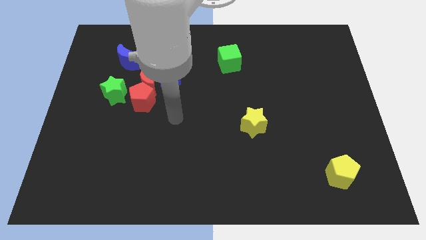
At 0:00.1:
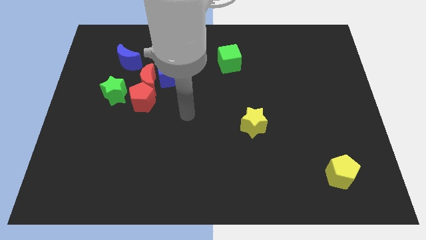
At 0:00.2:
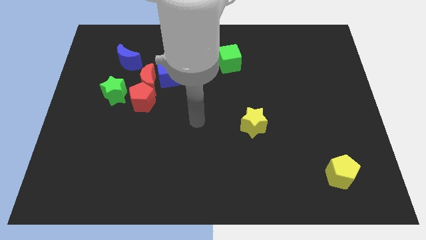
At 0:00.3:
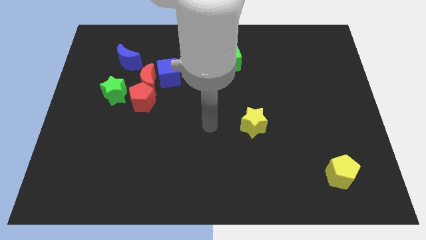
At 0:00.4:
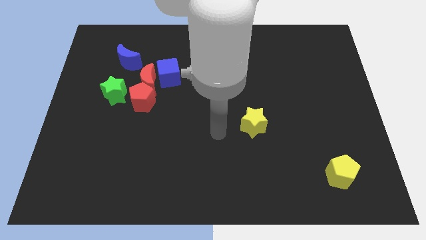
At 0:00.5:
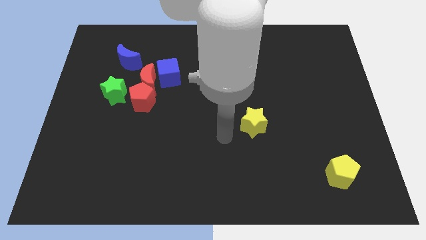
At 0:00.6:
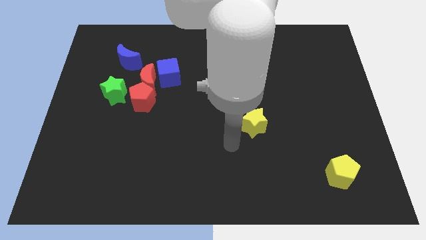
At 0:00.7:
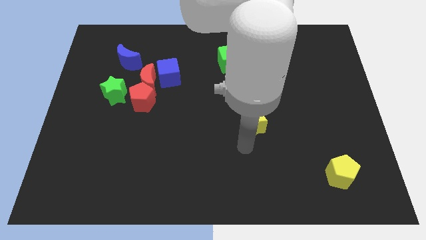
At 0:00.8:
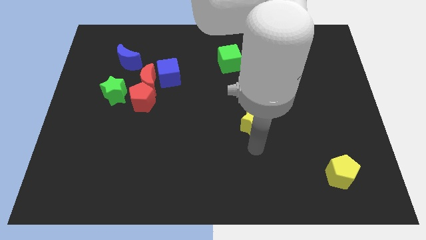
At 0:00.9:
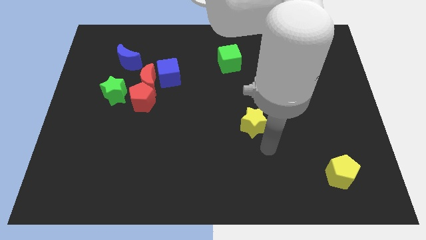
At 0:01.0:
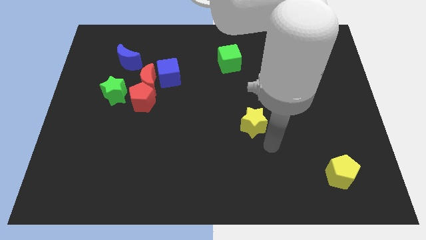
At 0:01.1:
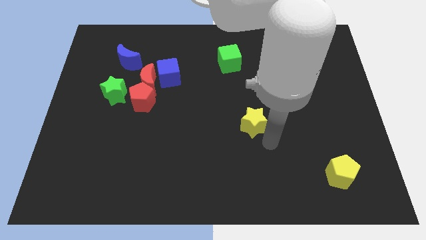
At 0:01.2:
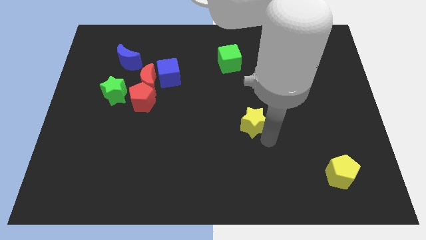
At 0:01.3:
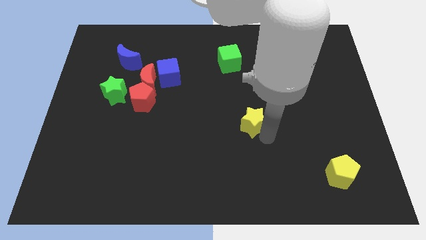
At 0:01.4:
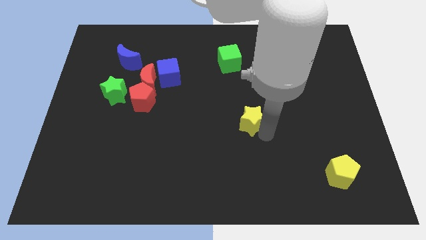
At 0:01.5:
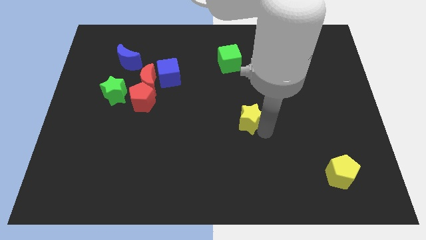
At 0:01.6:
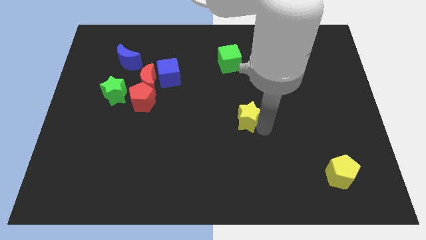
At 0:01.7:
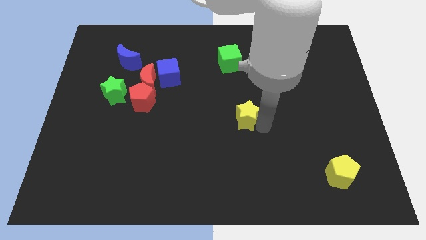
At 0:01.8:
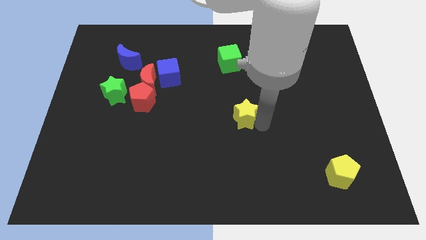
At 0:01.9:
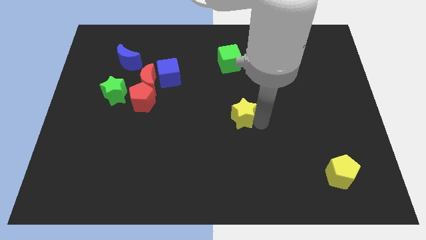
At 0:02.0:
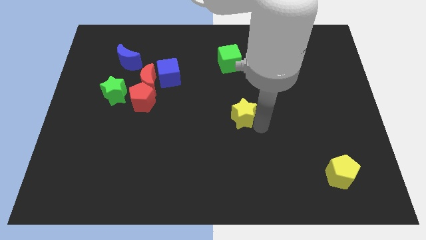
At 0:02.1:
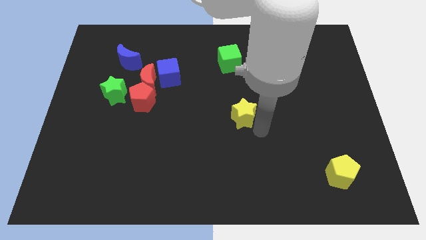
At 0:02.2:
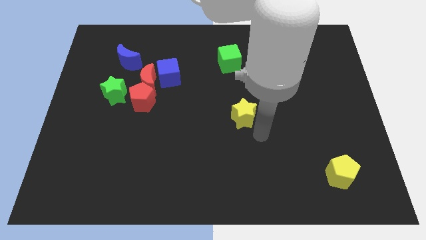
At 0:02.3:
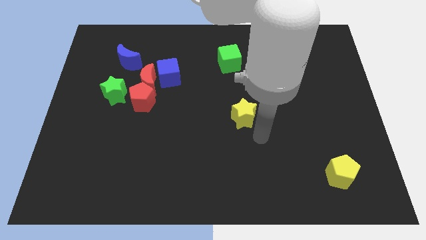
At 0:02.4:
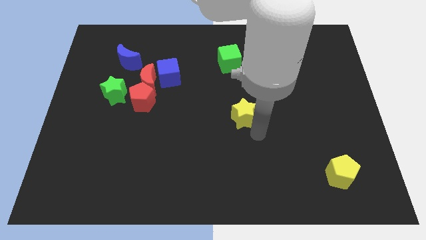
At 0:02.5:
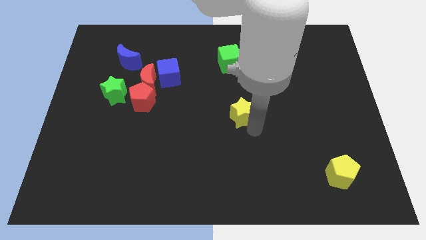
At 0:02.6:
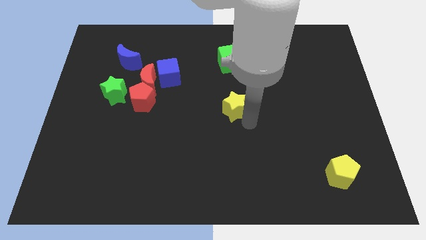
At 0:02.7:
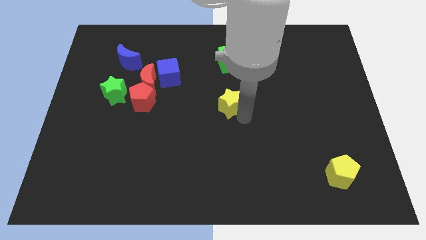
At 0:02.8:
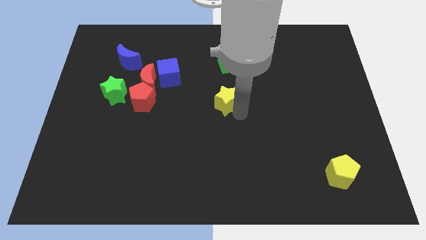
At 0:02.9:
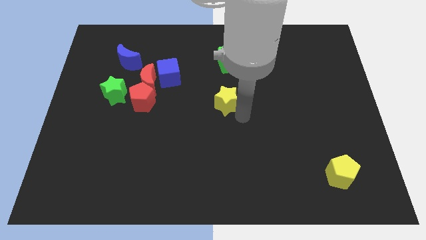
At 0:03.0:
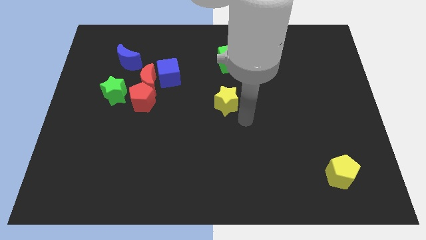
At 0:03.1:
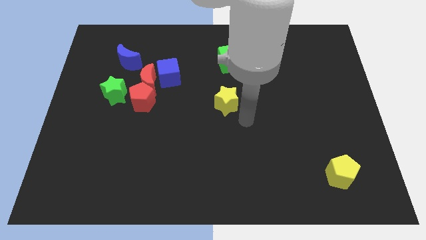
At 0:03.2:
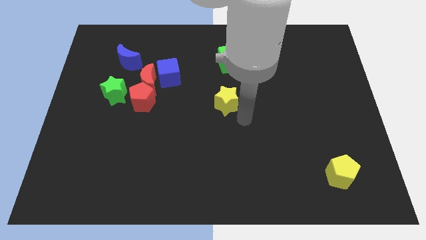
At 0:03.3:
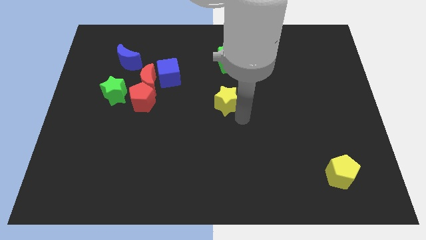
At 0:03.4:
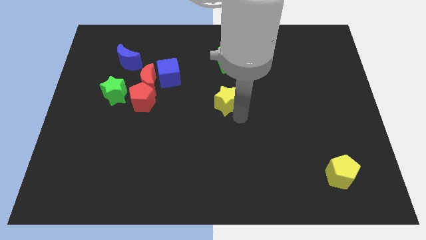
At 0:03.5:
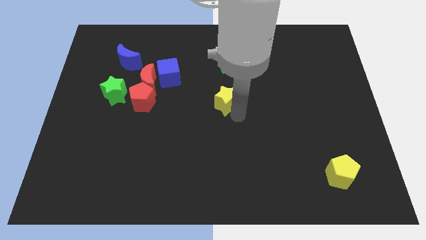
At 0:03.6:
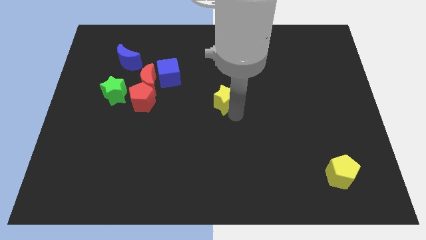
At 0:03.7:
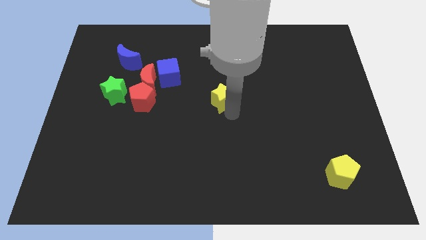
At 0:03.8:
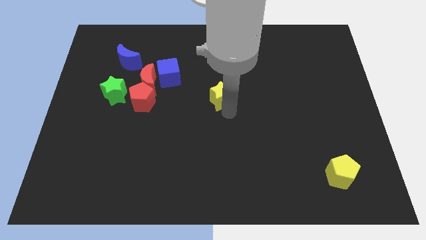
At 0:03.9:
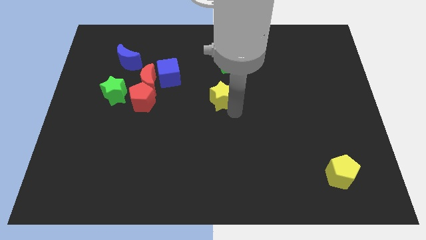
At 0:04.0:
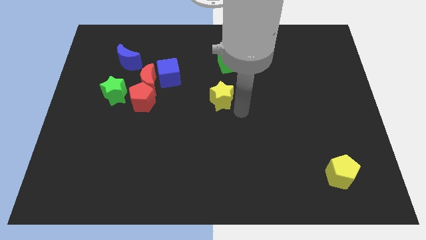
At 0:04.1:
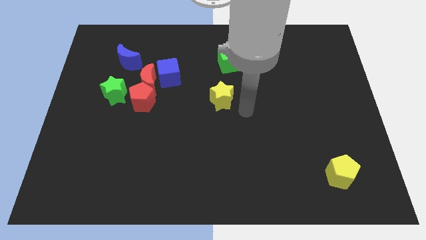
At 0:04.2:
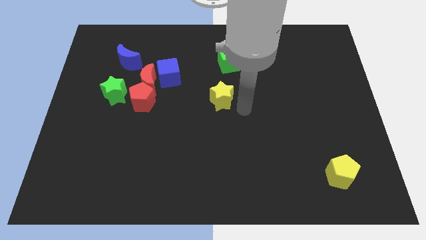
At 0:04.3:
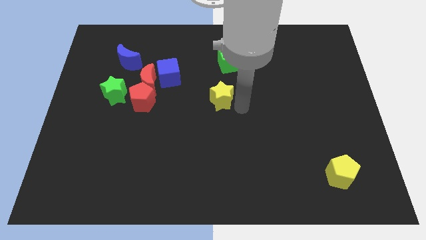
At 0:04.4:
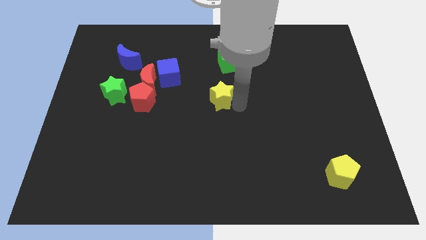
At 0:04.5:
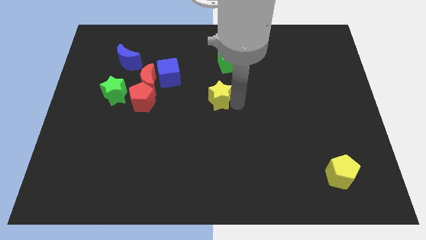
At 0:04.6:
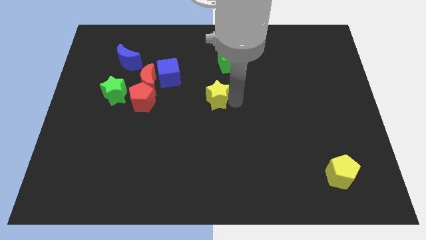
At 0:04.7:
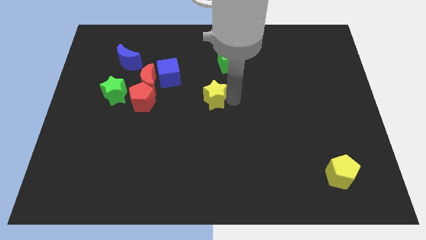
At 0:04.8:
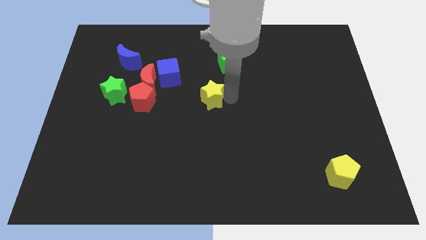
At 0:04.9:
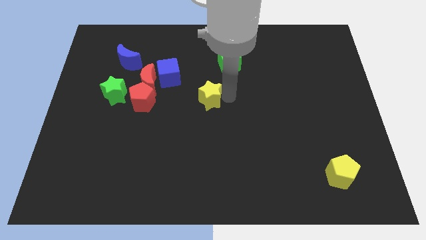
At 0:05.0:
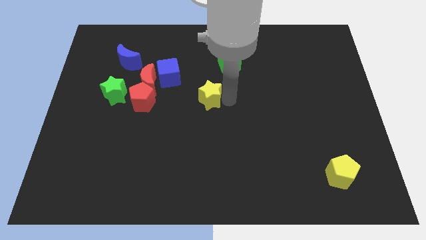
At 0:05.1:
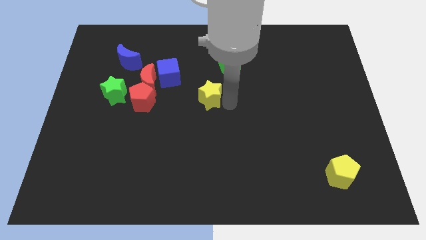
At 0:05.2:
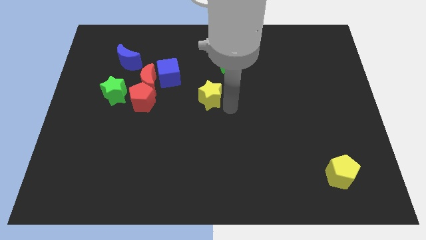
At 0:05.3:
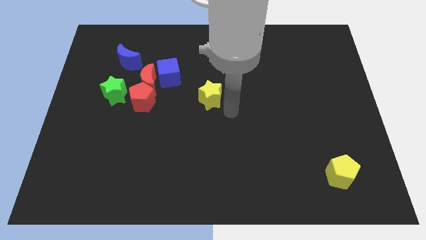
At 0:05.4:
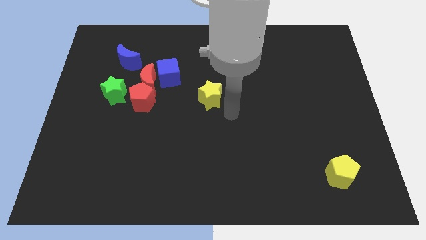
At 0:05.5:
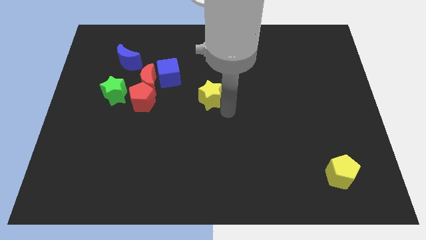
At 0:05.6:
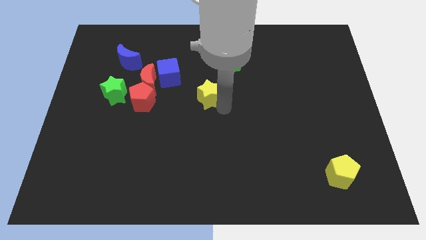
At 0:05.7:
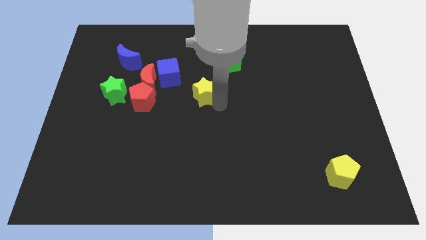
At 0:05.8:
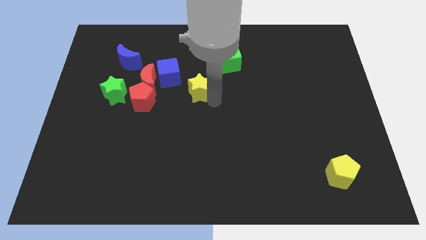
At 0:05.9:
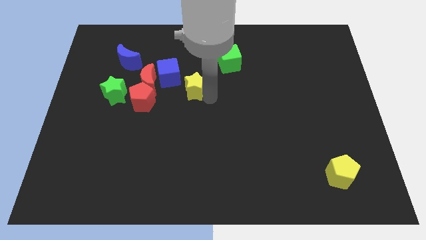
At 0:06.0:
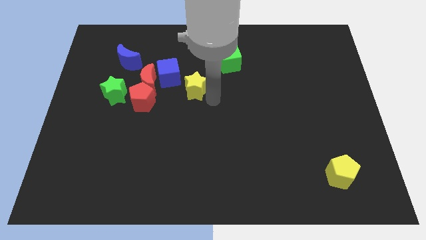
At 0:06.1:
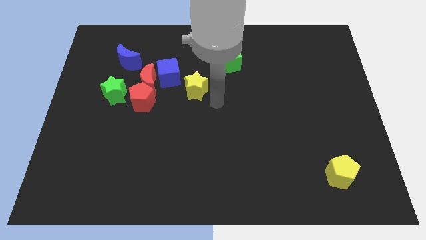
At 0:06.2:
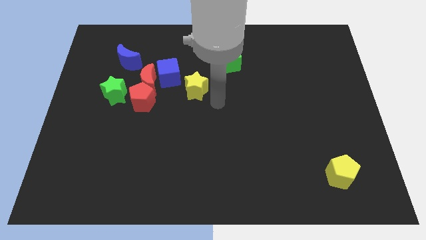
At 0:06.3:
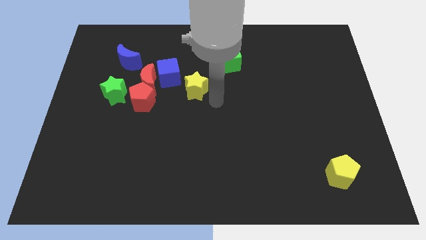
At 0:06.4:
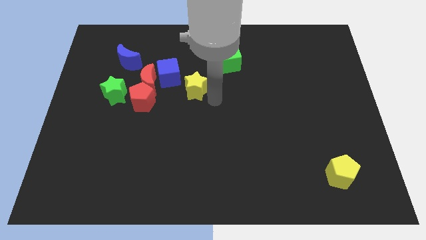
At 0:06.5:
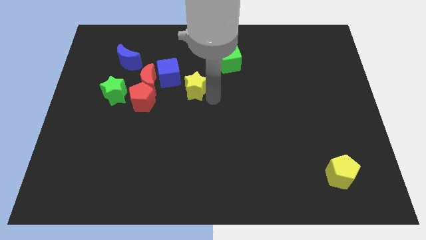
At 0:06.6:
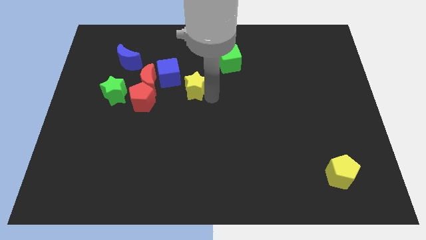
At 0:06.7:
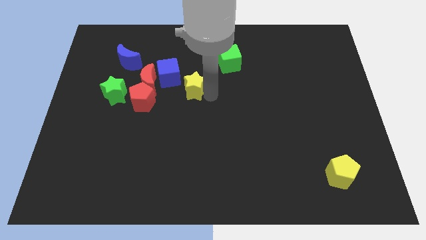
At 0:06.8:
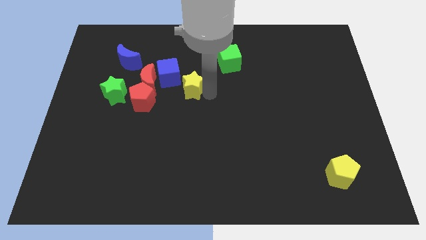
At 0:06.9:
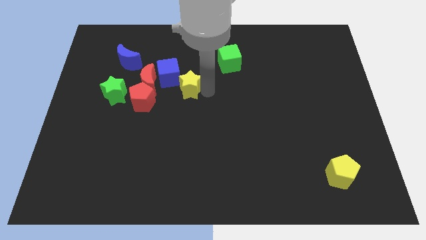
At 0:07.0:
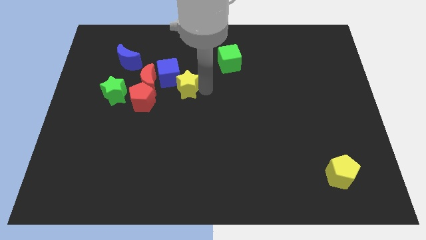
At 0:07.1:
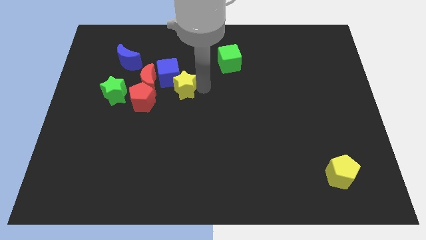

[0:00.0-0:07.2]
slide the yellow star to the blue cube

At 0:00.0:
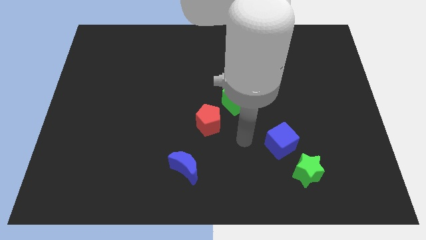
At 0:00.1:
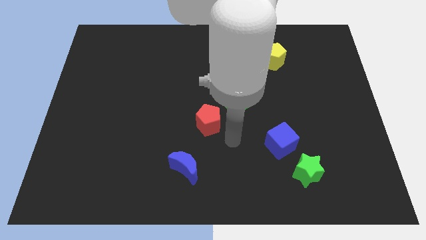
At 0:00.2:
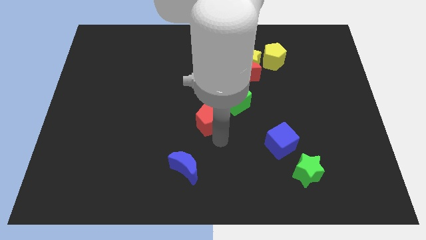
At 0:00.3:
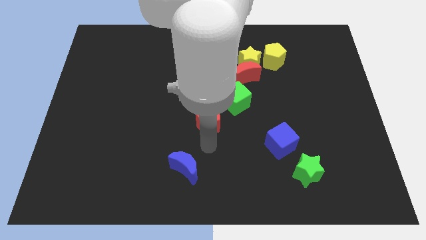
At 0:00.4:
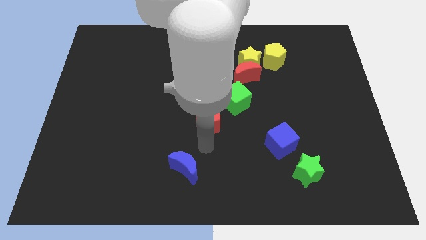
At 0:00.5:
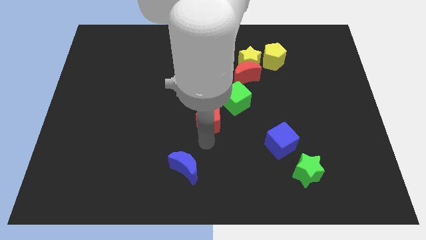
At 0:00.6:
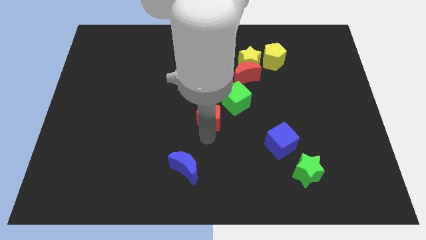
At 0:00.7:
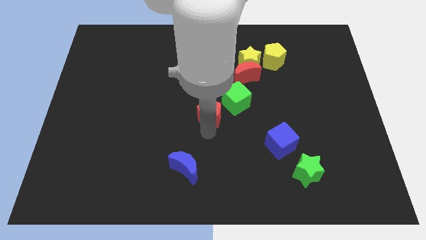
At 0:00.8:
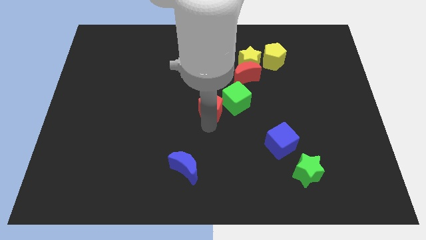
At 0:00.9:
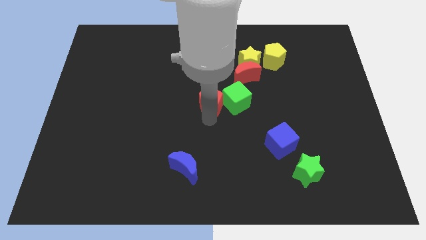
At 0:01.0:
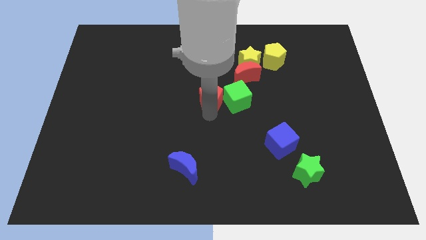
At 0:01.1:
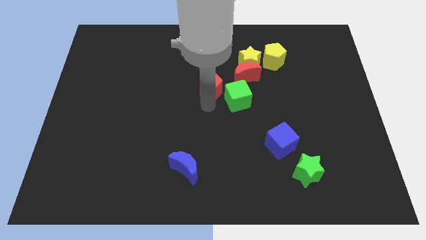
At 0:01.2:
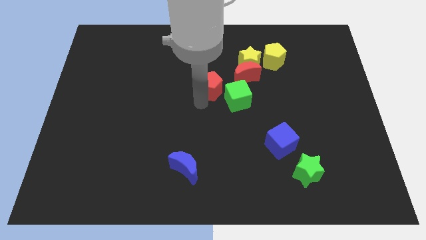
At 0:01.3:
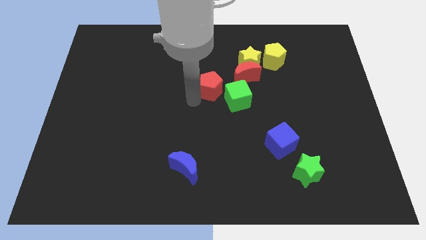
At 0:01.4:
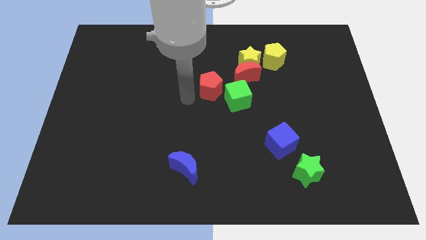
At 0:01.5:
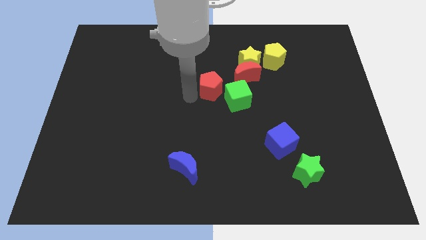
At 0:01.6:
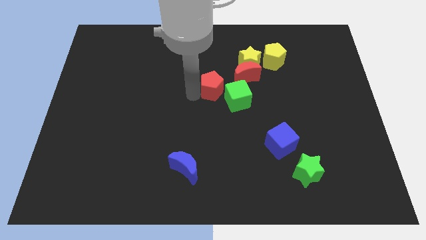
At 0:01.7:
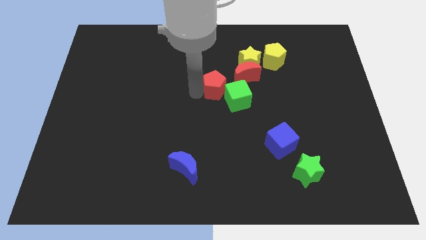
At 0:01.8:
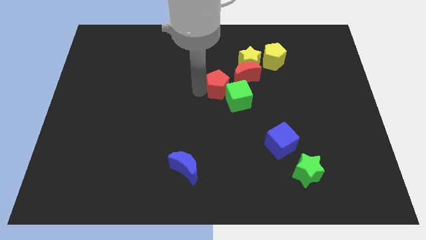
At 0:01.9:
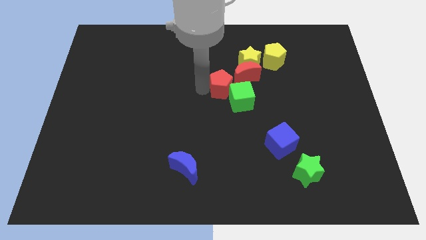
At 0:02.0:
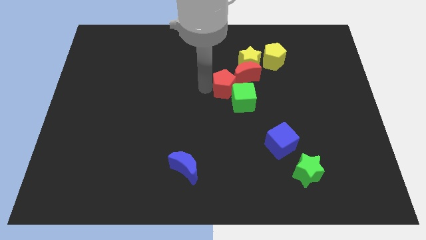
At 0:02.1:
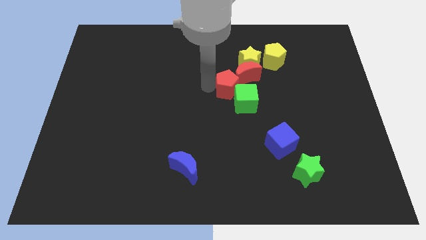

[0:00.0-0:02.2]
slide the red pentagon close to the red moon
